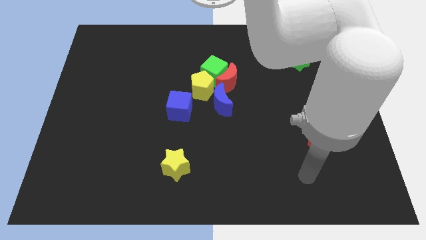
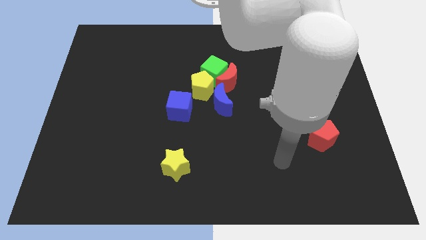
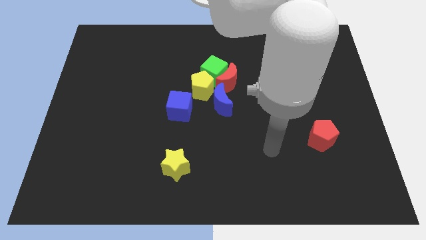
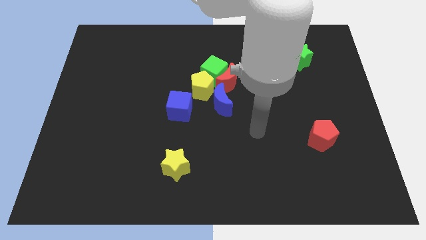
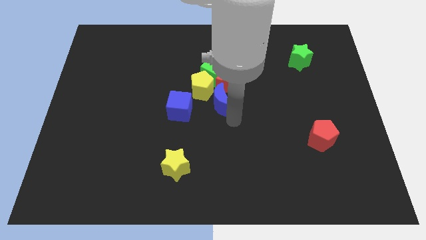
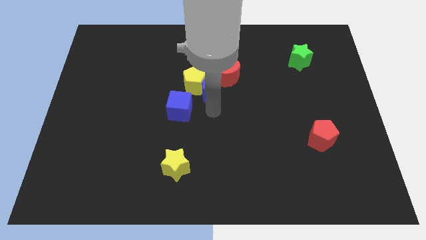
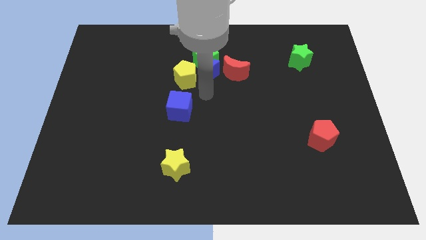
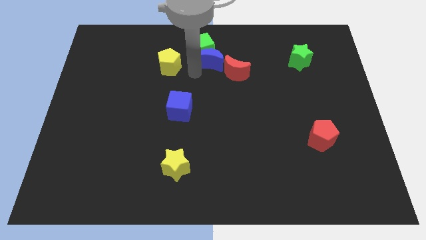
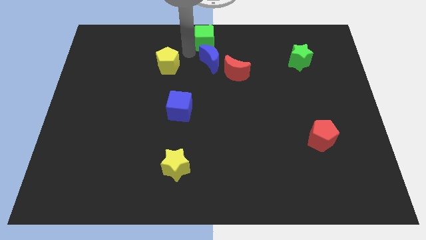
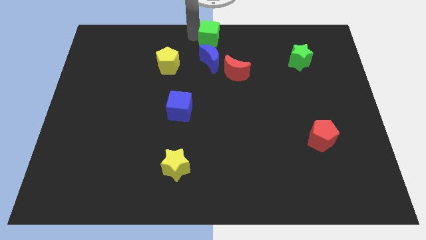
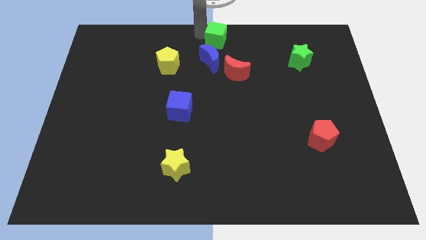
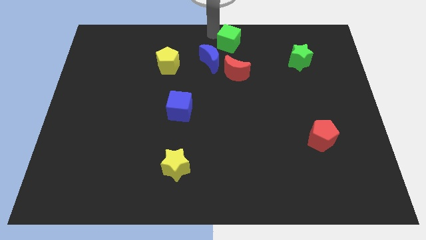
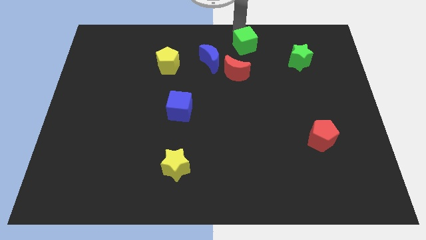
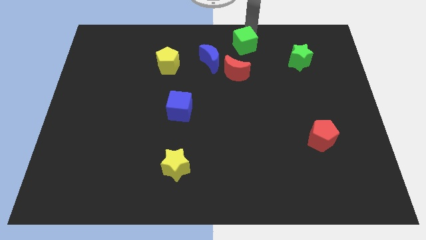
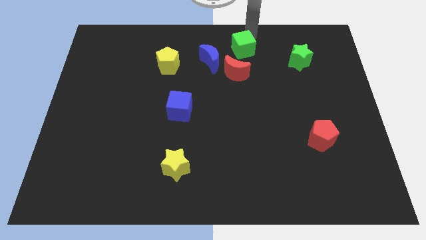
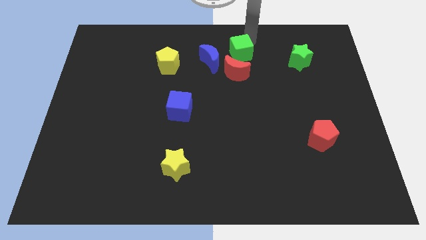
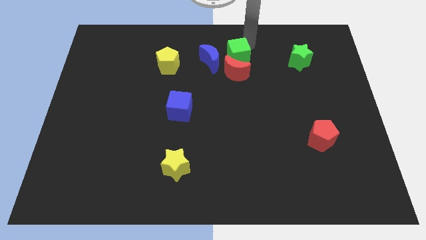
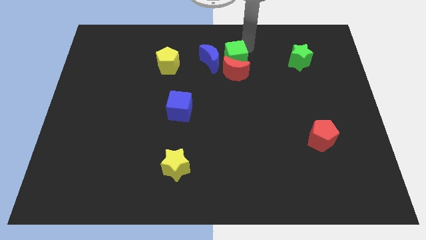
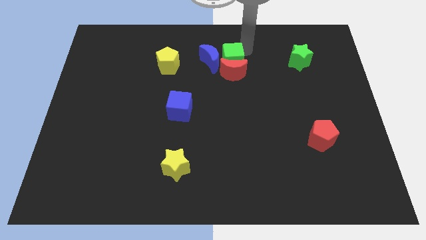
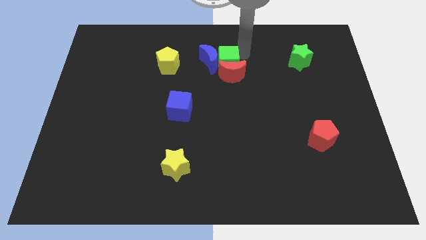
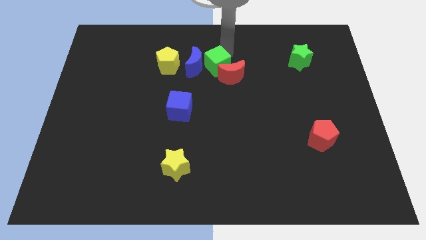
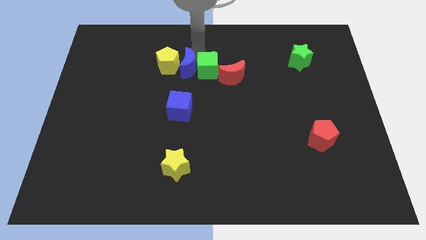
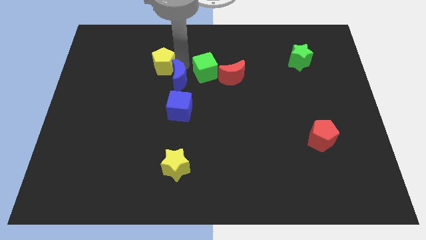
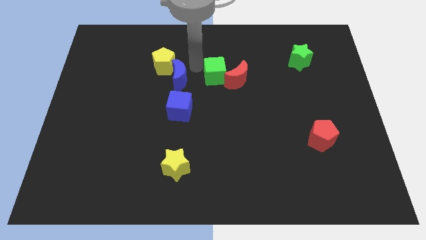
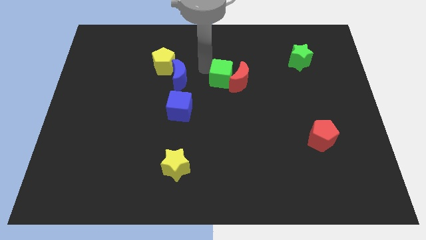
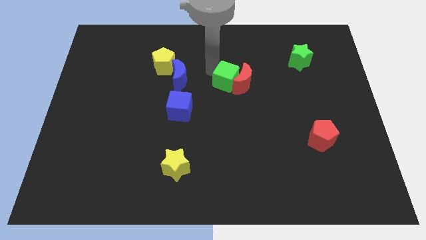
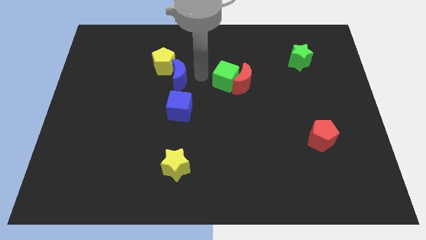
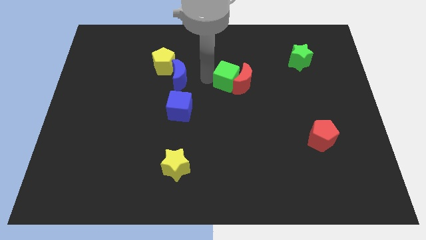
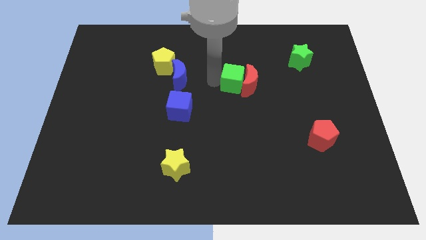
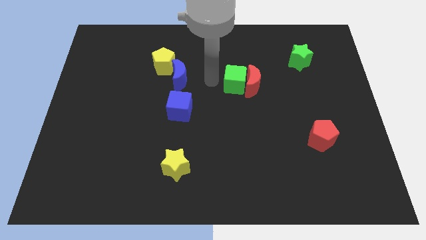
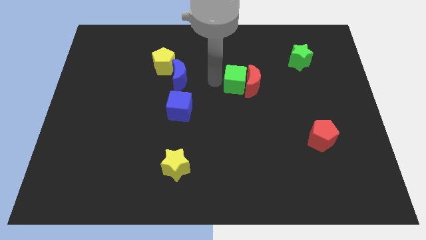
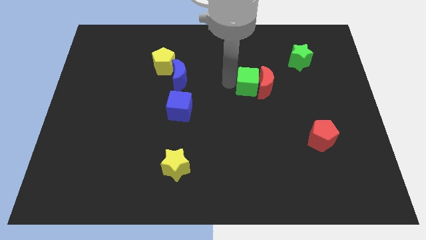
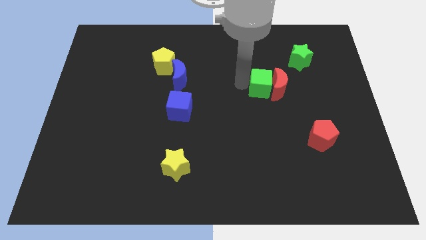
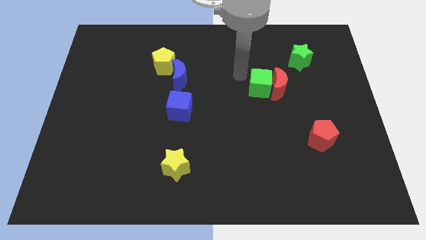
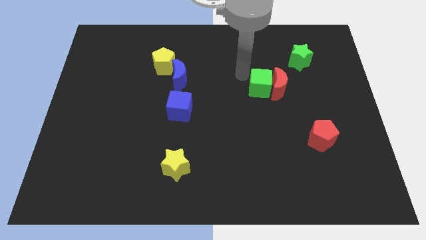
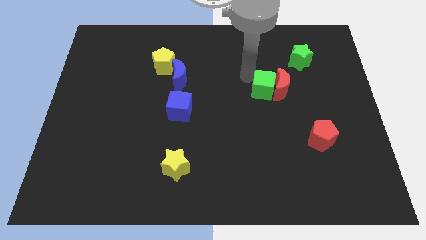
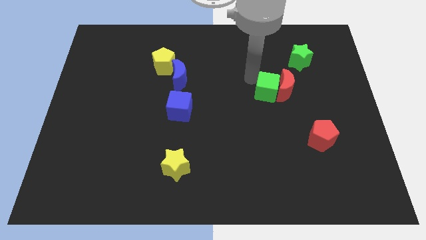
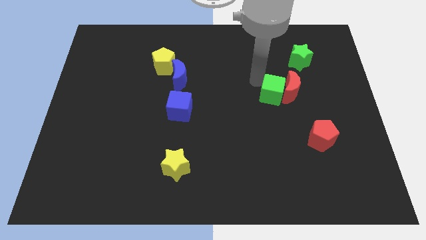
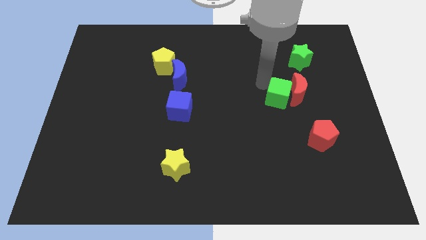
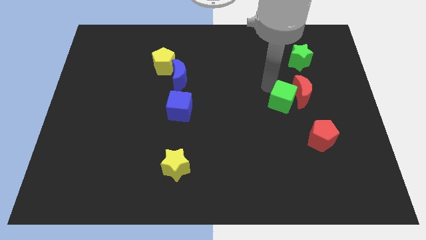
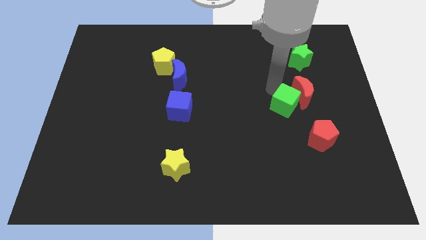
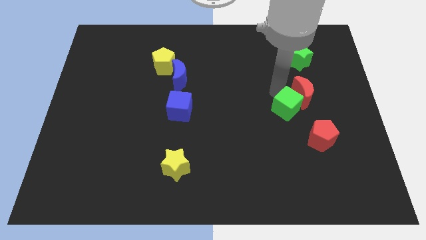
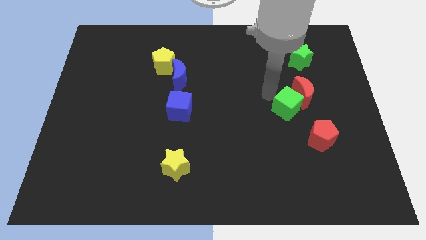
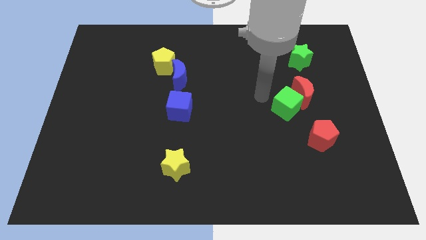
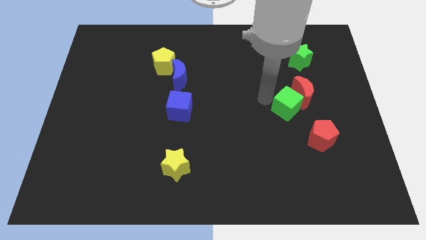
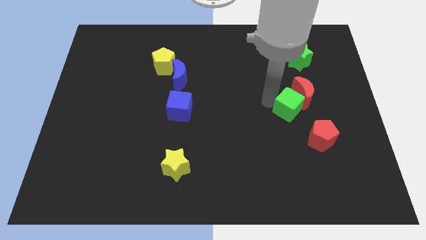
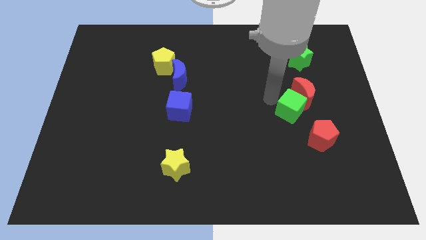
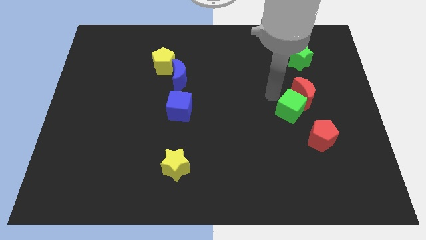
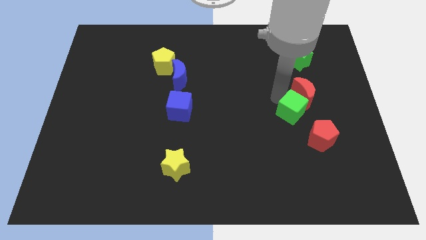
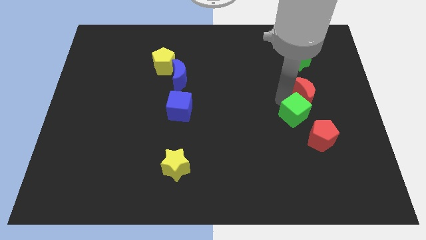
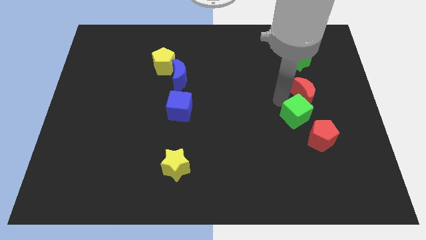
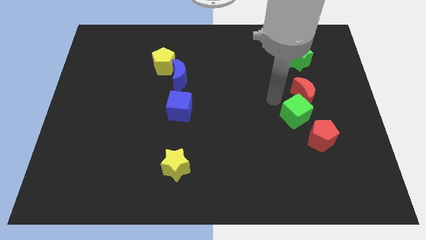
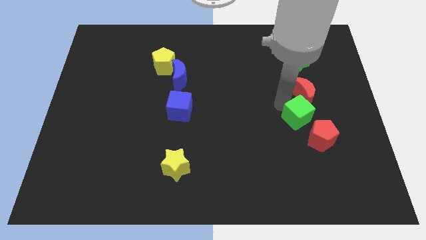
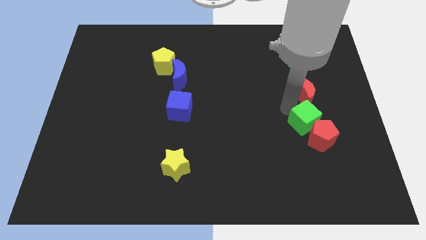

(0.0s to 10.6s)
move the green cube to the red pentagon

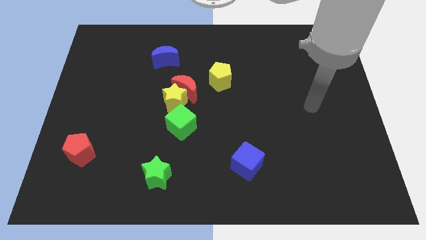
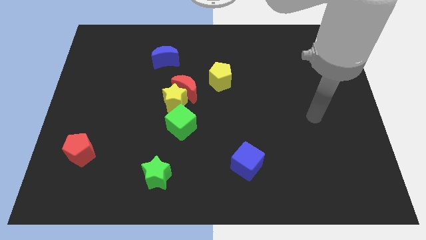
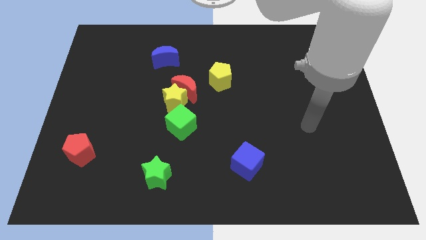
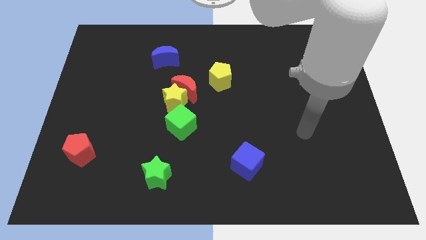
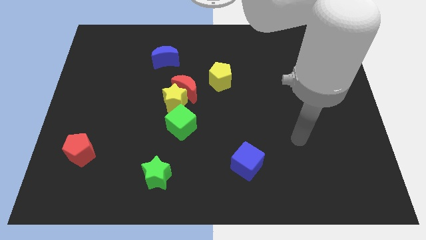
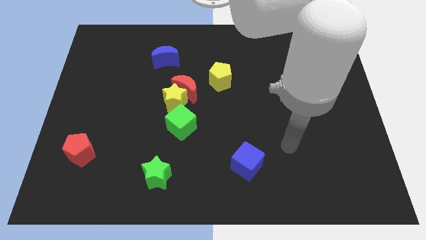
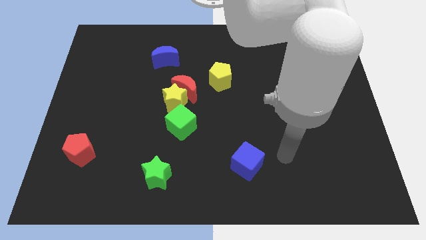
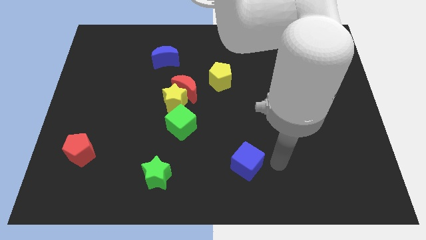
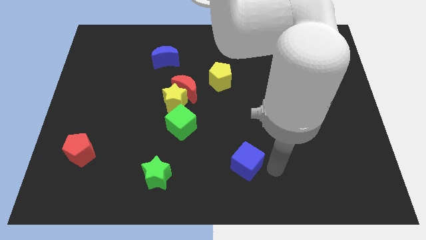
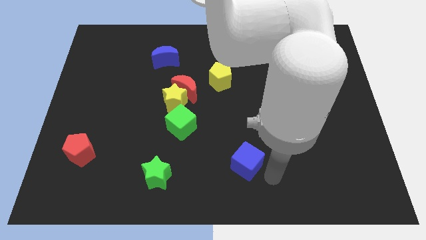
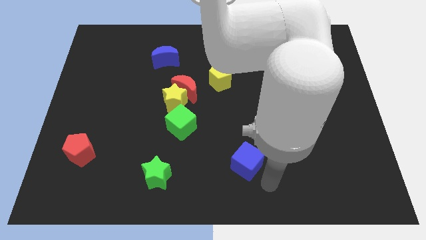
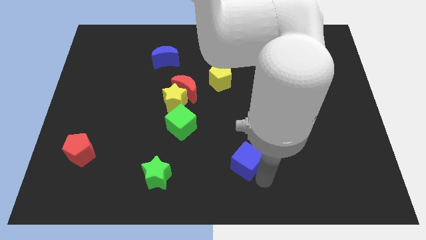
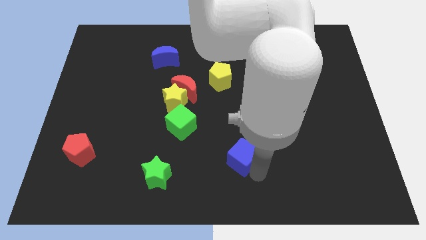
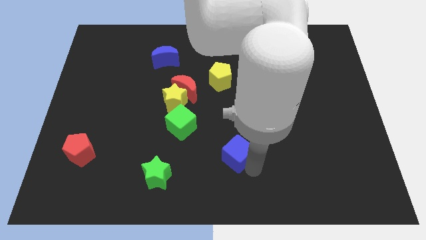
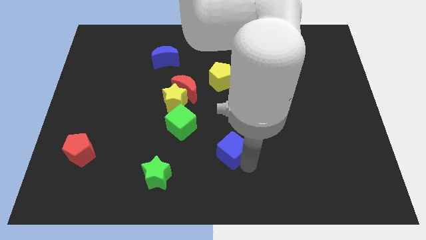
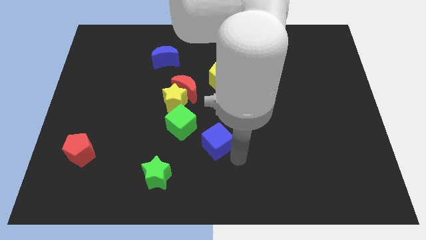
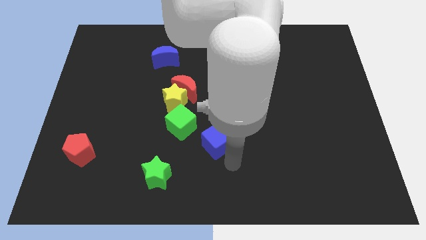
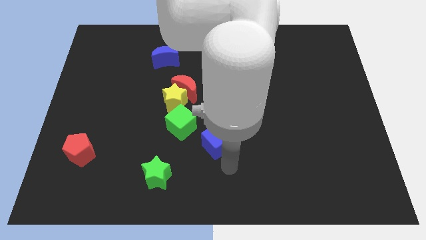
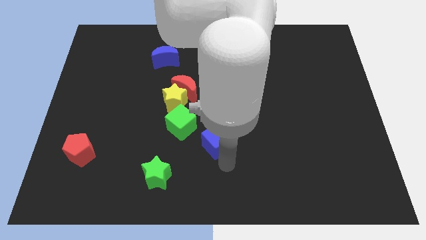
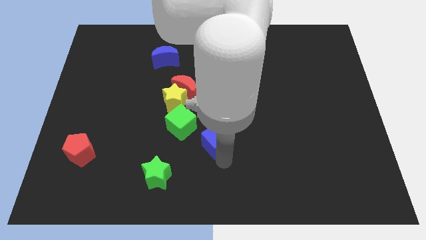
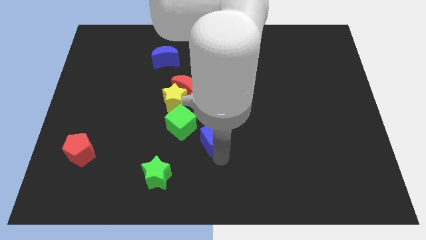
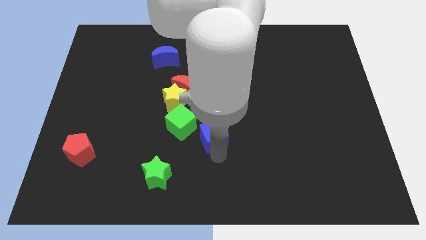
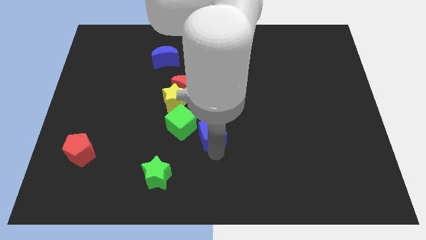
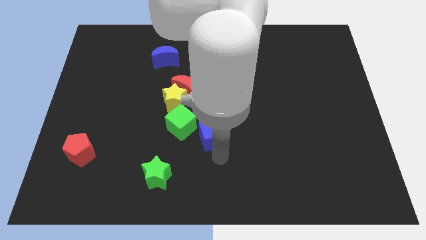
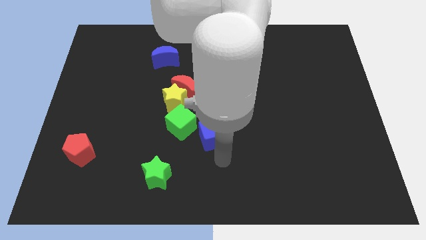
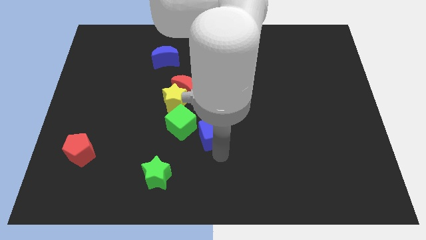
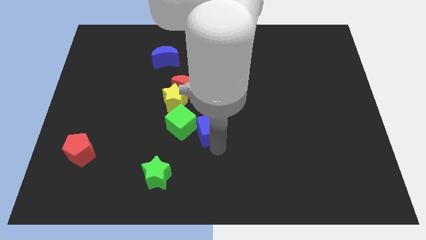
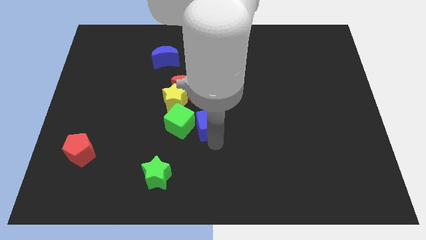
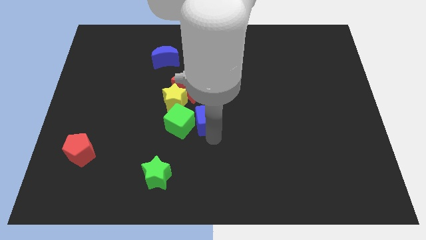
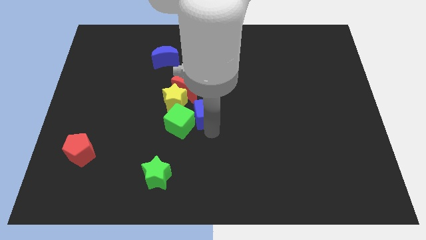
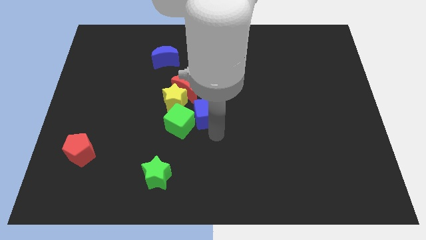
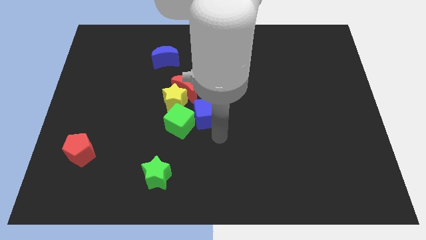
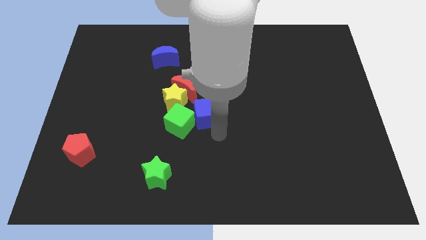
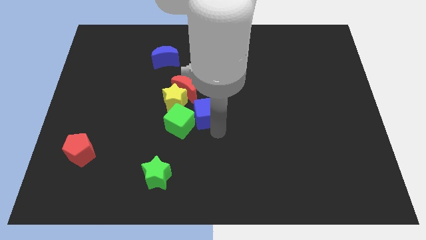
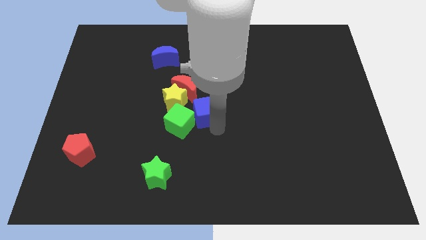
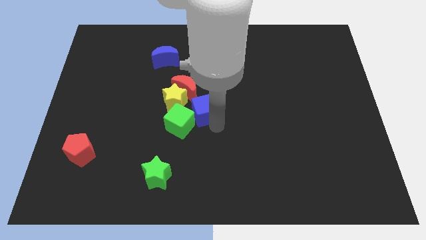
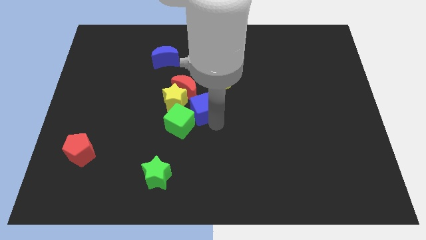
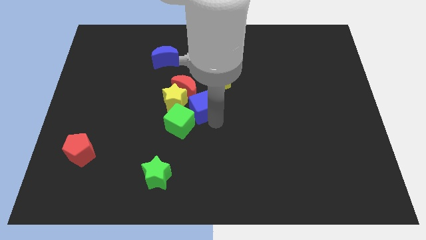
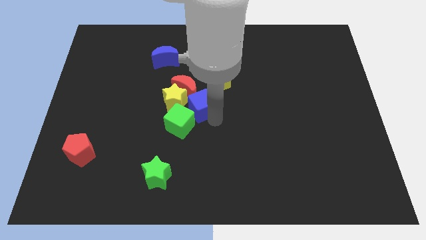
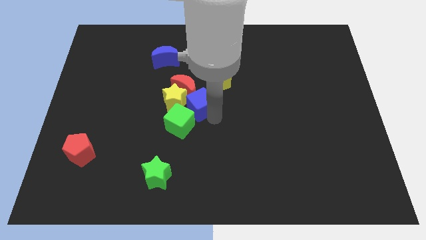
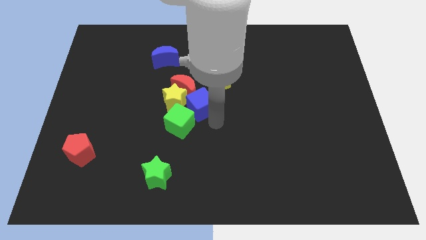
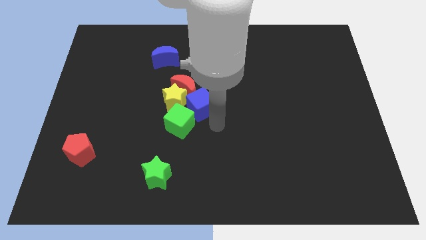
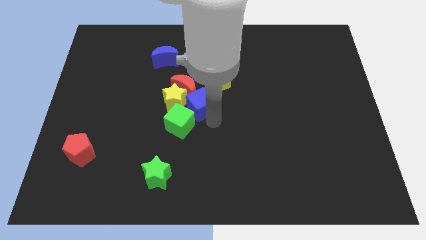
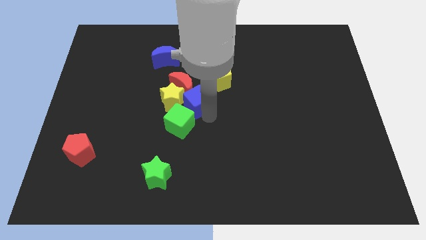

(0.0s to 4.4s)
push the blue cube next to the red moon
